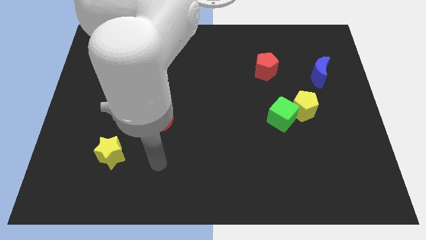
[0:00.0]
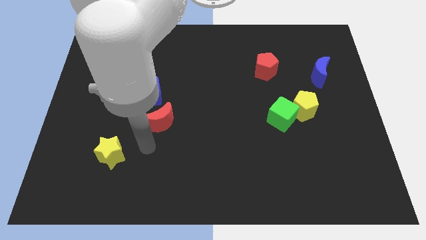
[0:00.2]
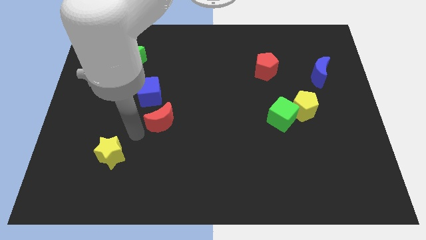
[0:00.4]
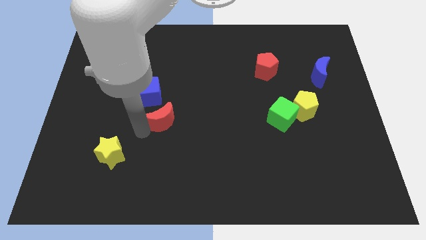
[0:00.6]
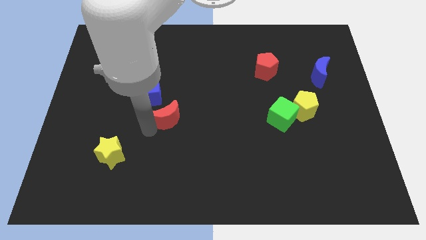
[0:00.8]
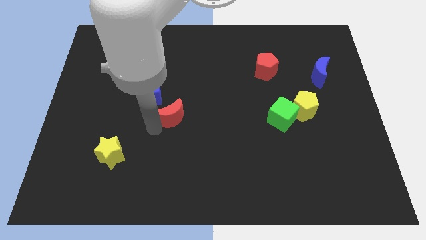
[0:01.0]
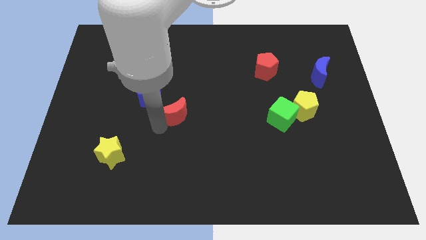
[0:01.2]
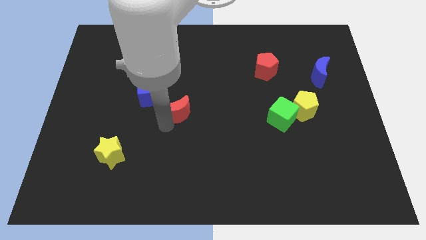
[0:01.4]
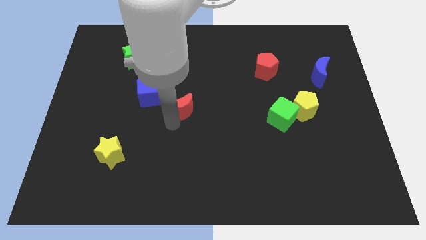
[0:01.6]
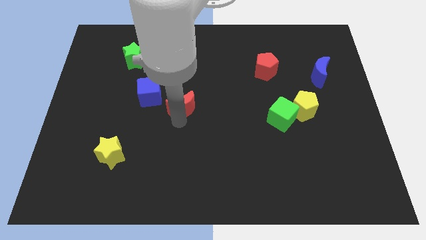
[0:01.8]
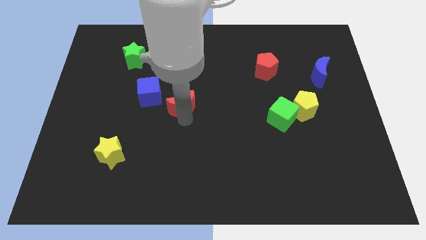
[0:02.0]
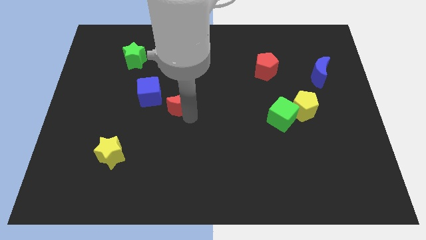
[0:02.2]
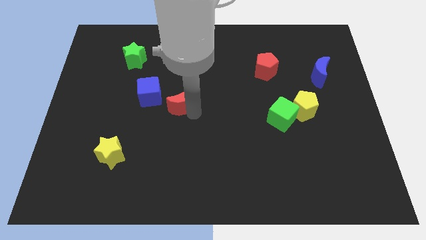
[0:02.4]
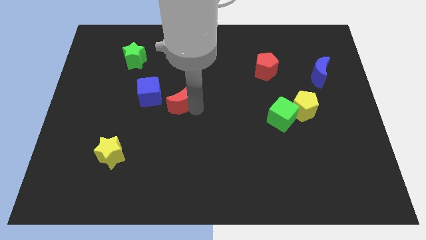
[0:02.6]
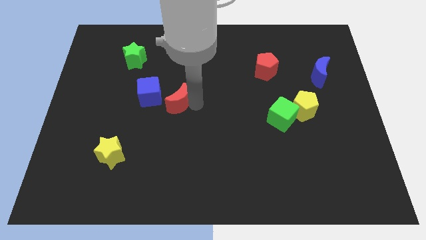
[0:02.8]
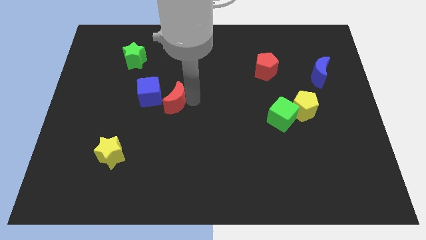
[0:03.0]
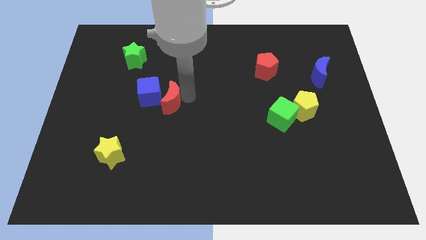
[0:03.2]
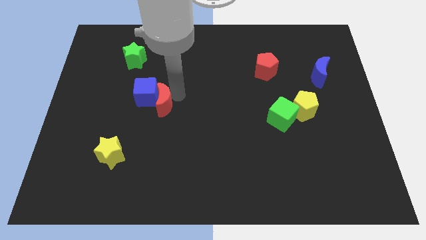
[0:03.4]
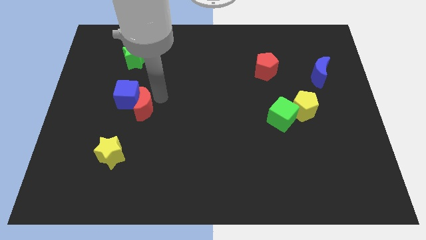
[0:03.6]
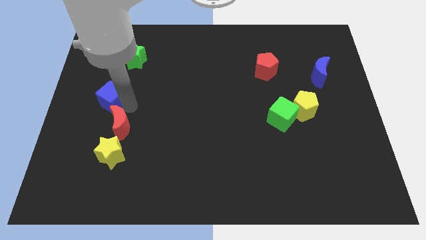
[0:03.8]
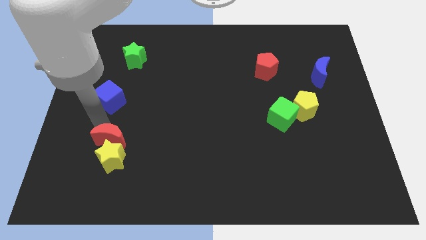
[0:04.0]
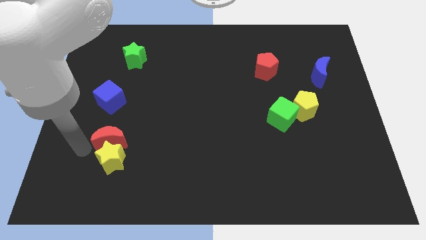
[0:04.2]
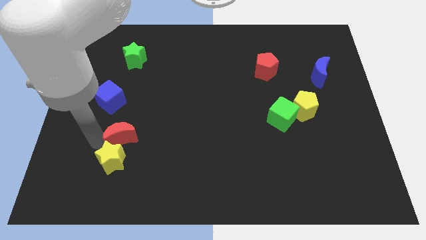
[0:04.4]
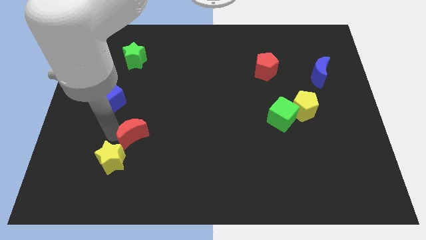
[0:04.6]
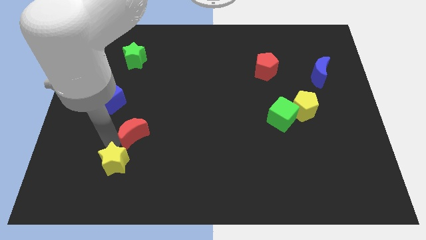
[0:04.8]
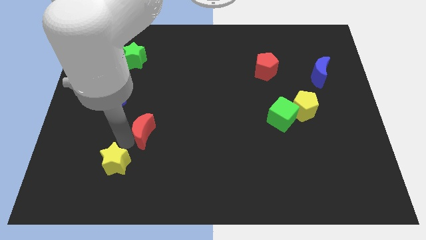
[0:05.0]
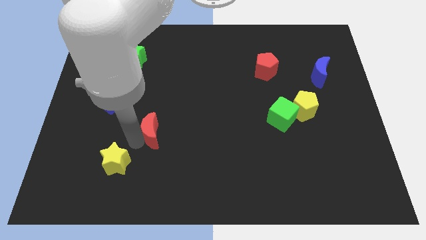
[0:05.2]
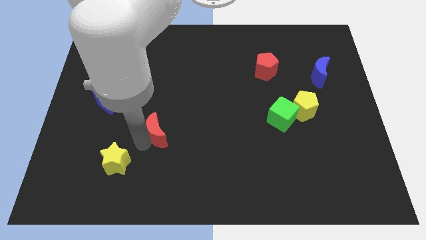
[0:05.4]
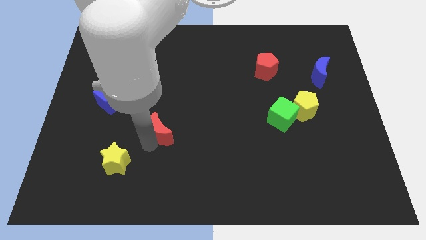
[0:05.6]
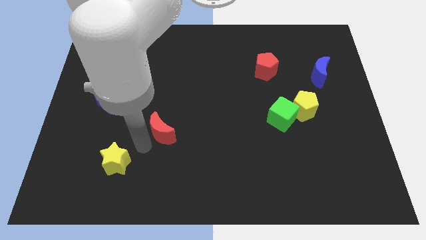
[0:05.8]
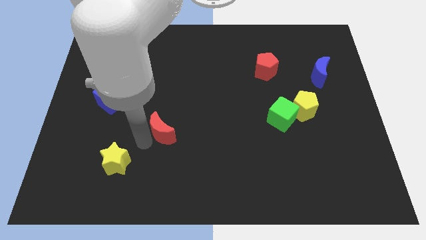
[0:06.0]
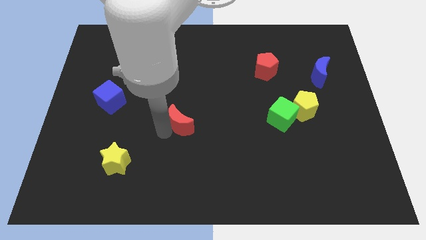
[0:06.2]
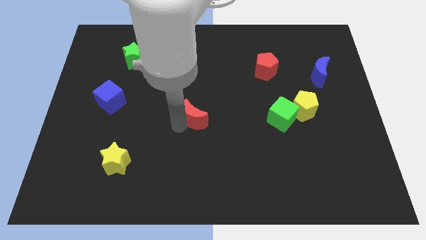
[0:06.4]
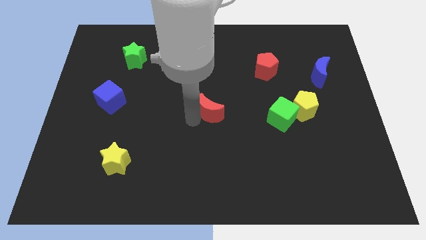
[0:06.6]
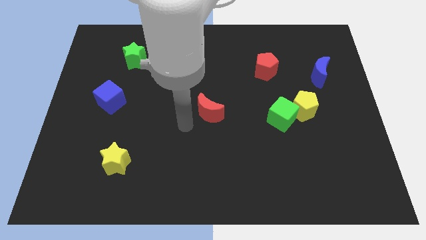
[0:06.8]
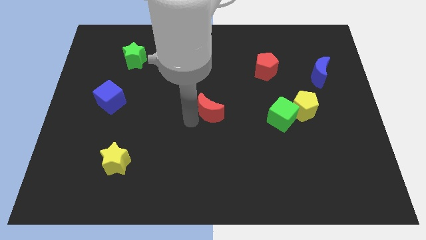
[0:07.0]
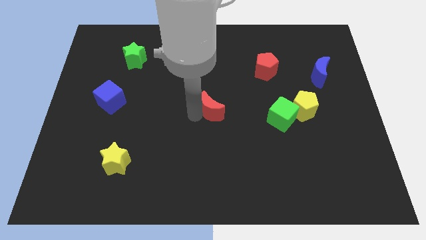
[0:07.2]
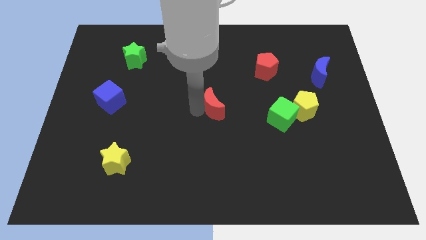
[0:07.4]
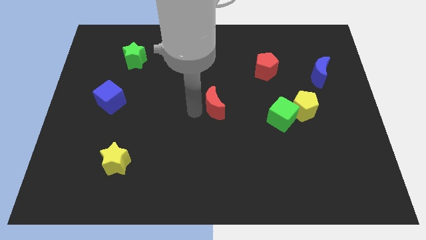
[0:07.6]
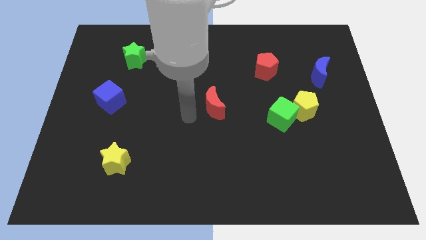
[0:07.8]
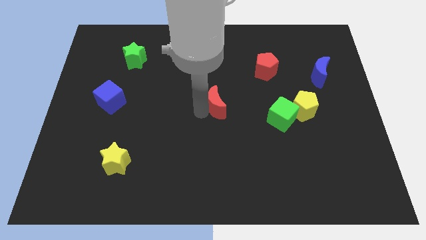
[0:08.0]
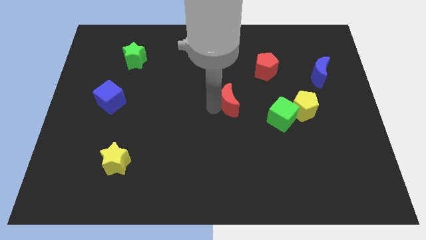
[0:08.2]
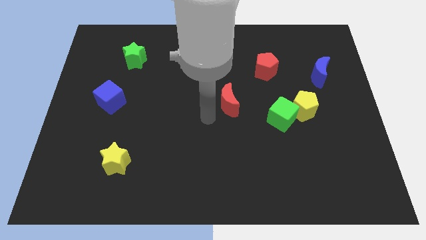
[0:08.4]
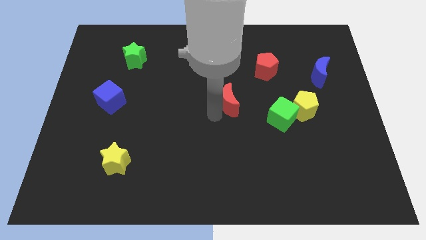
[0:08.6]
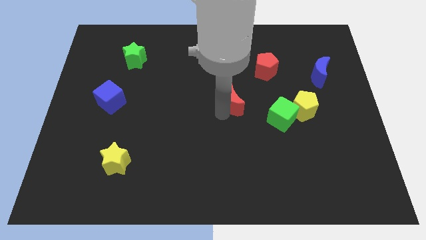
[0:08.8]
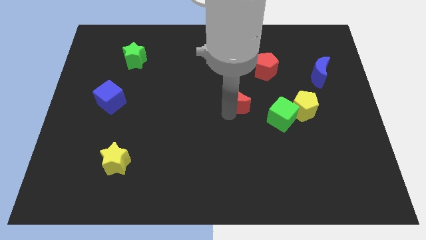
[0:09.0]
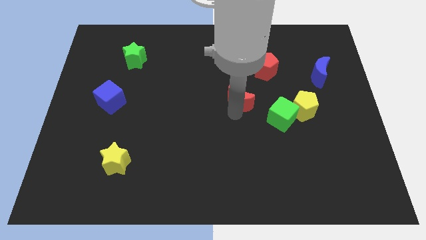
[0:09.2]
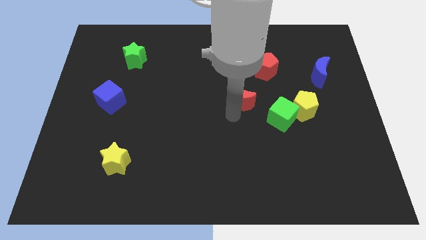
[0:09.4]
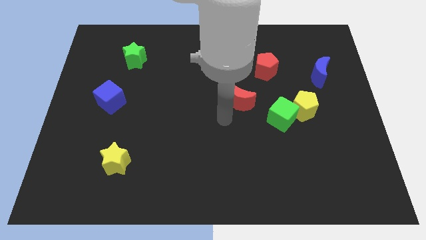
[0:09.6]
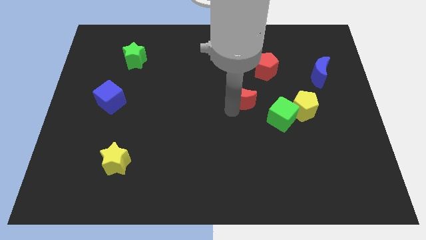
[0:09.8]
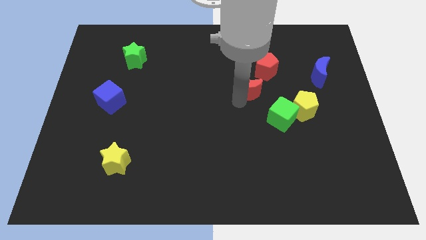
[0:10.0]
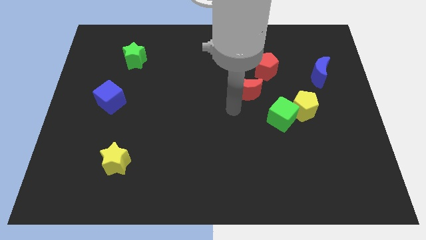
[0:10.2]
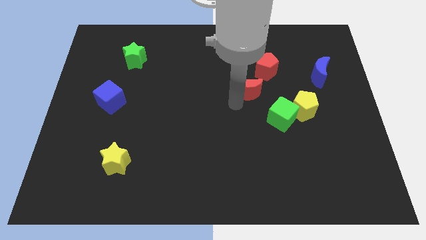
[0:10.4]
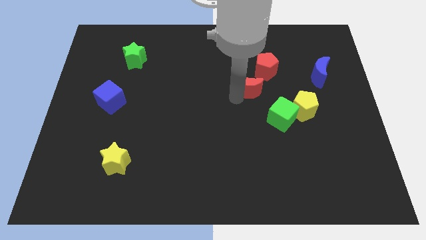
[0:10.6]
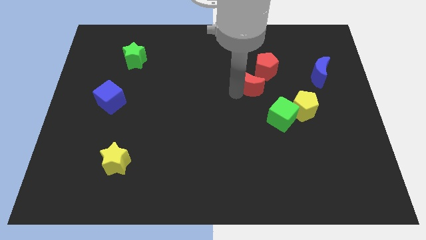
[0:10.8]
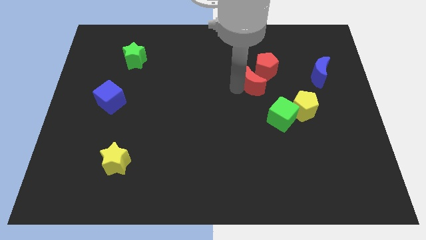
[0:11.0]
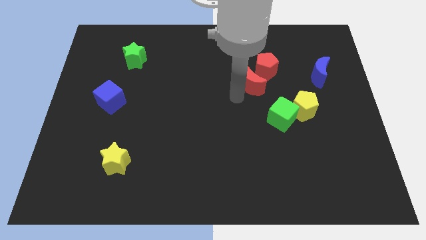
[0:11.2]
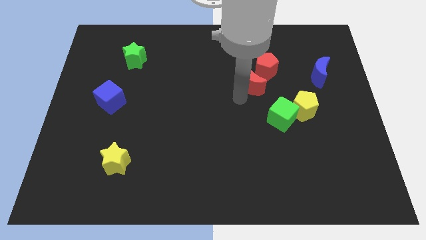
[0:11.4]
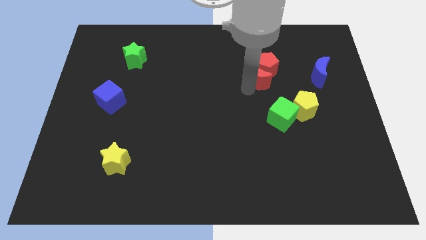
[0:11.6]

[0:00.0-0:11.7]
slide the red moon to the red pentagon

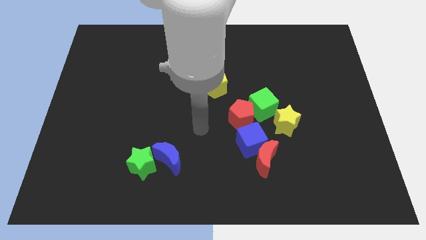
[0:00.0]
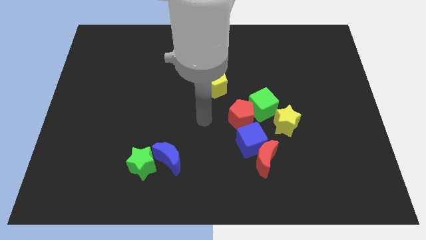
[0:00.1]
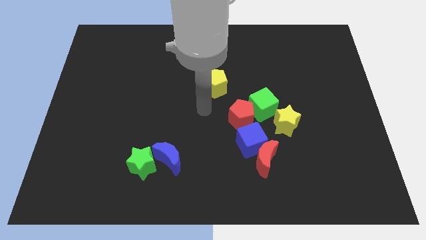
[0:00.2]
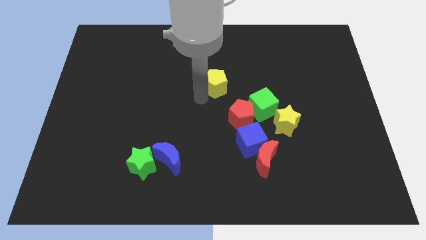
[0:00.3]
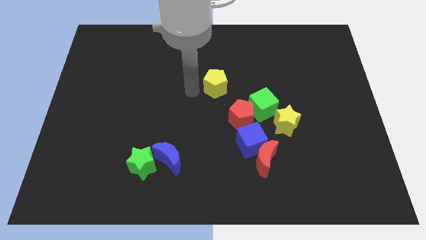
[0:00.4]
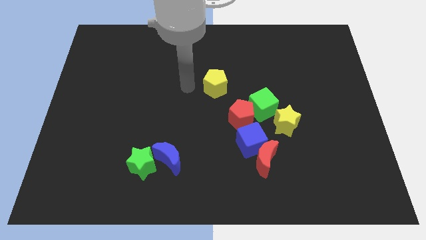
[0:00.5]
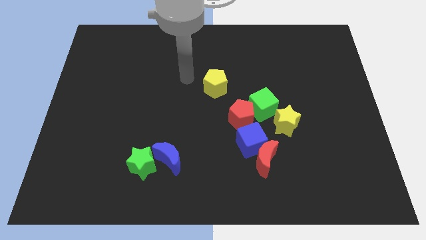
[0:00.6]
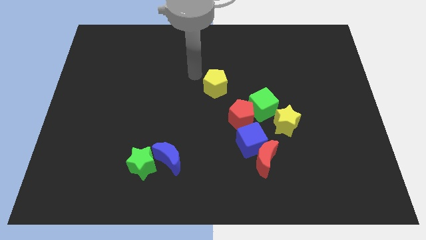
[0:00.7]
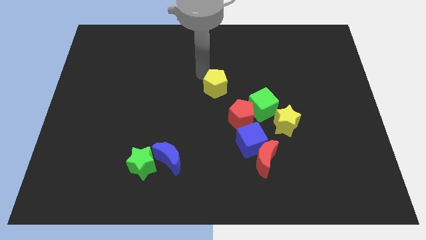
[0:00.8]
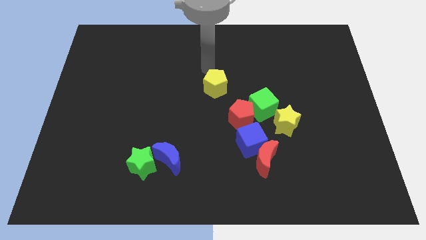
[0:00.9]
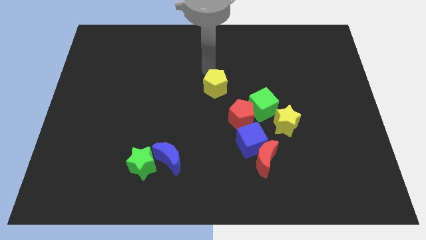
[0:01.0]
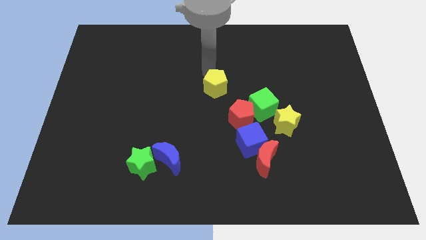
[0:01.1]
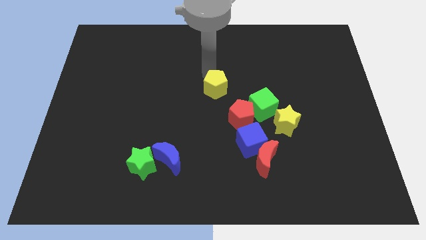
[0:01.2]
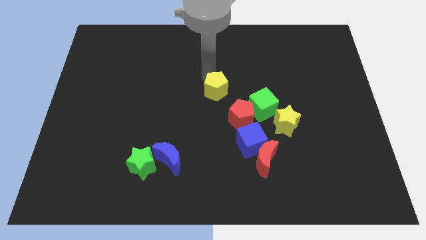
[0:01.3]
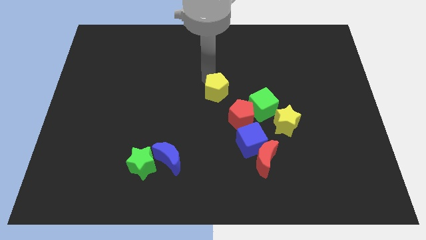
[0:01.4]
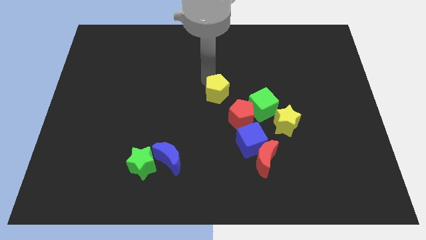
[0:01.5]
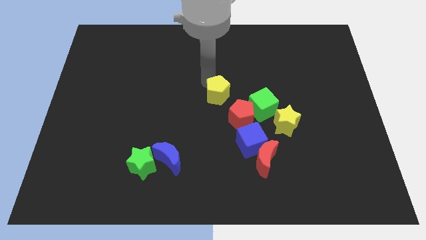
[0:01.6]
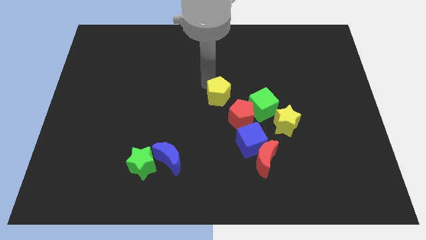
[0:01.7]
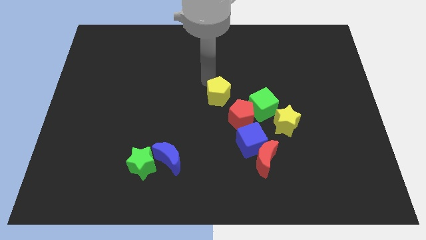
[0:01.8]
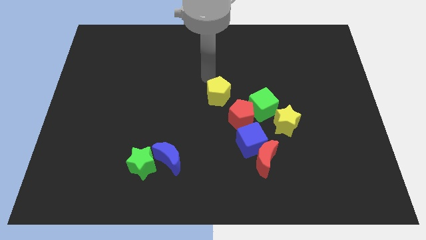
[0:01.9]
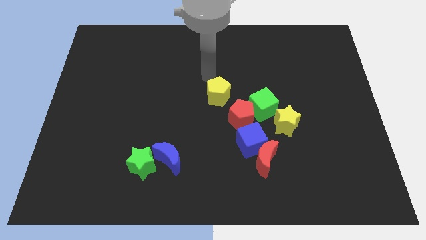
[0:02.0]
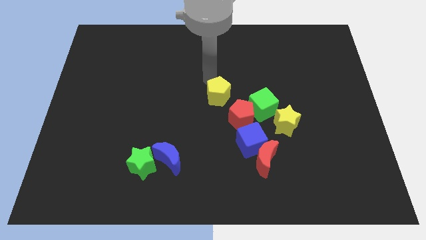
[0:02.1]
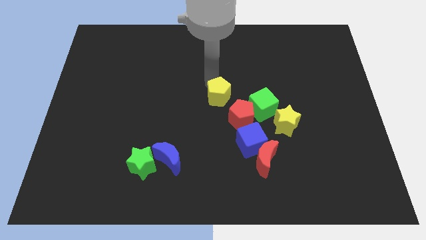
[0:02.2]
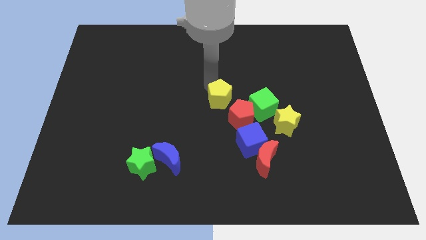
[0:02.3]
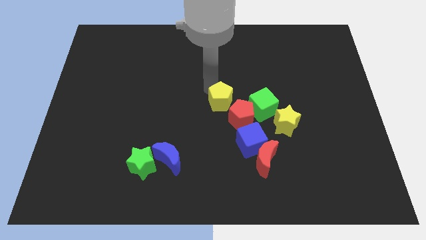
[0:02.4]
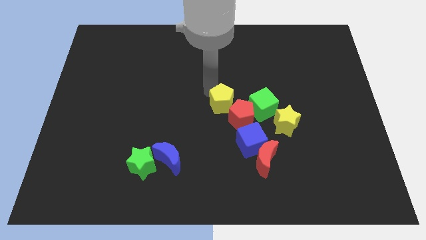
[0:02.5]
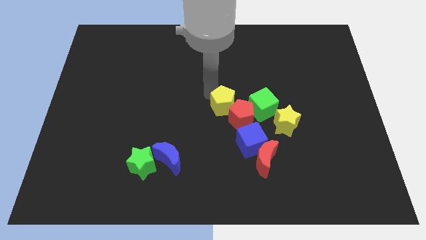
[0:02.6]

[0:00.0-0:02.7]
slide the yellow pentagon towards the red pentagon
